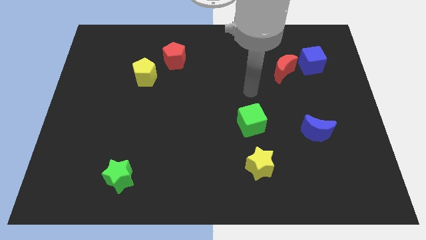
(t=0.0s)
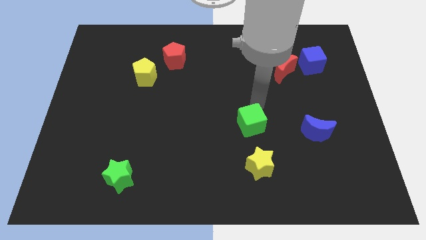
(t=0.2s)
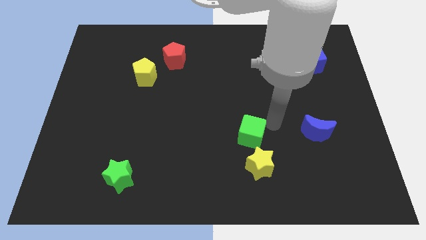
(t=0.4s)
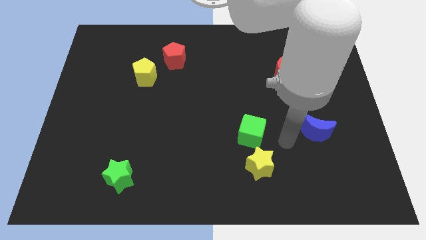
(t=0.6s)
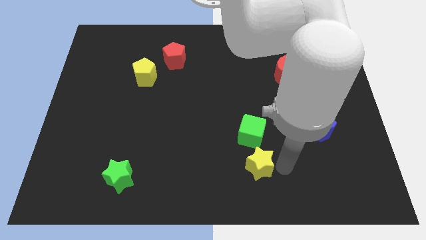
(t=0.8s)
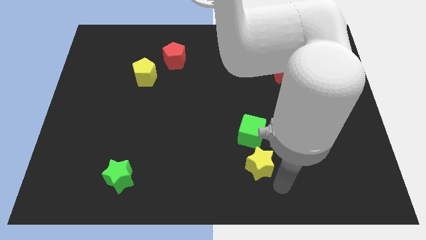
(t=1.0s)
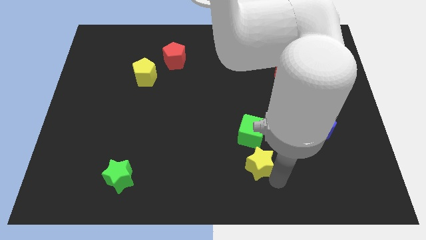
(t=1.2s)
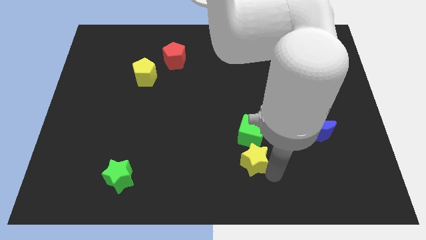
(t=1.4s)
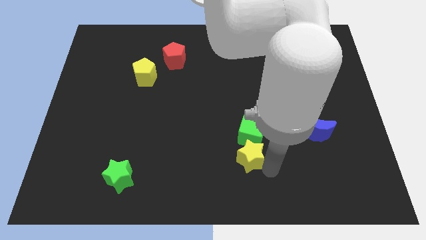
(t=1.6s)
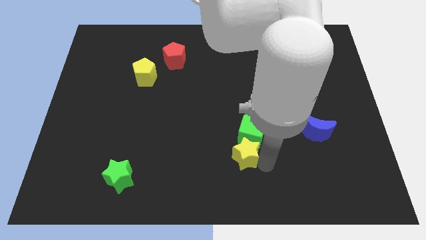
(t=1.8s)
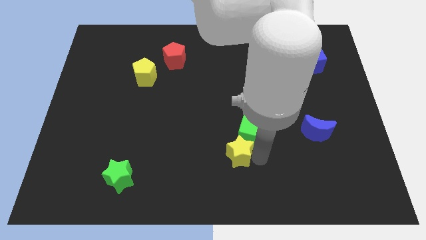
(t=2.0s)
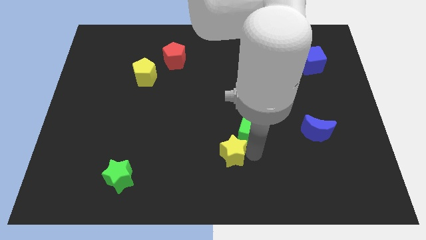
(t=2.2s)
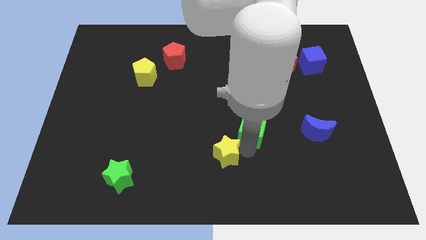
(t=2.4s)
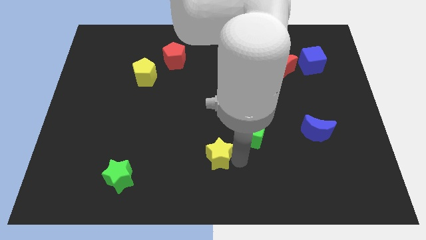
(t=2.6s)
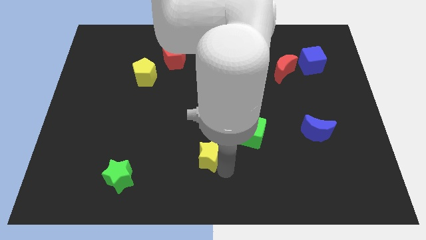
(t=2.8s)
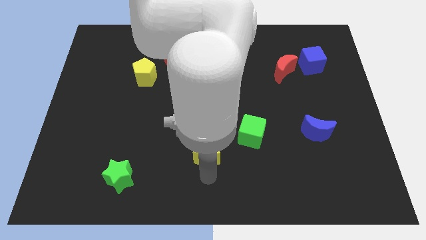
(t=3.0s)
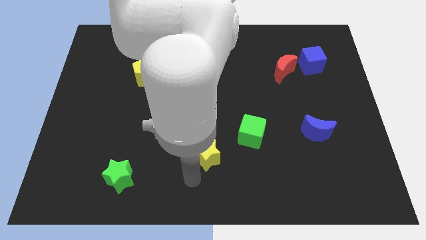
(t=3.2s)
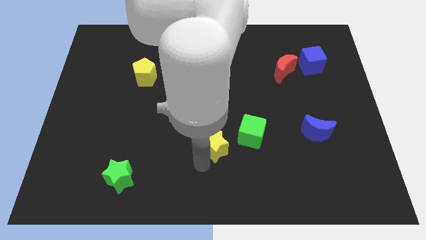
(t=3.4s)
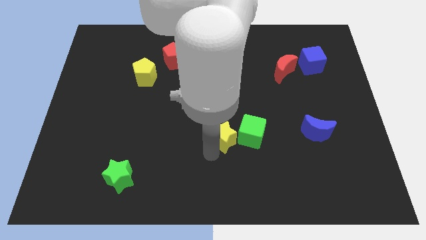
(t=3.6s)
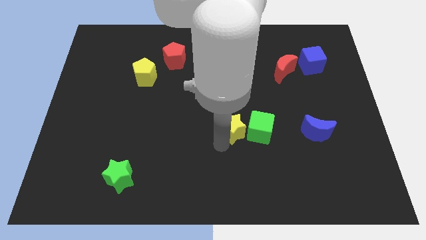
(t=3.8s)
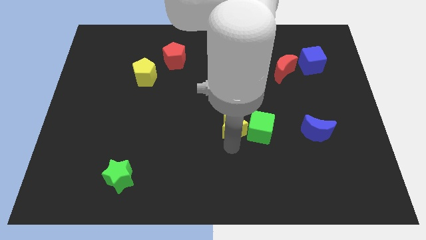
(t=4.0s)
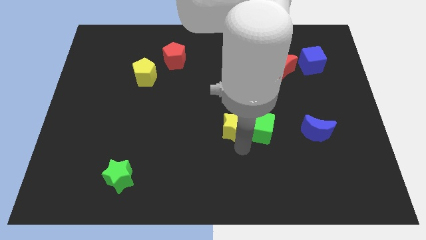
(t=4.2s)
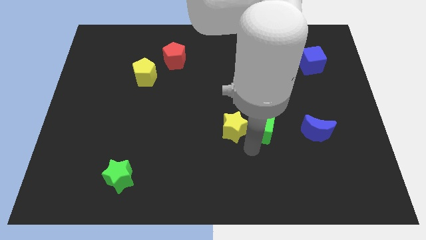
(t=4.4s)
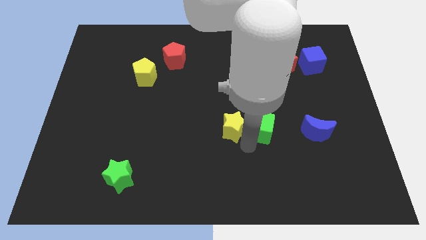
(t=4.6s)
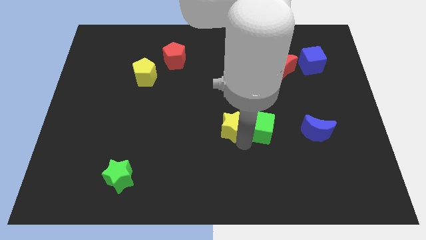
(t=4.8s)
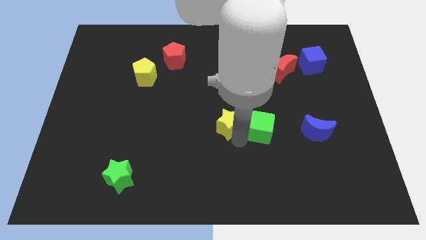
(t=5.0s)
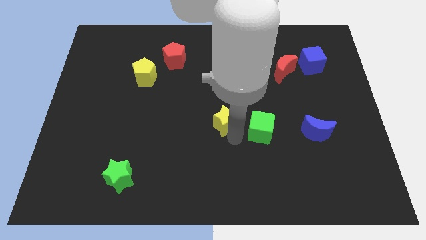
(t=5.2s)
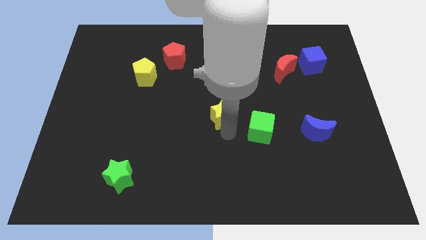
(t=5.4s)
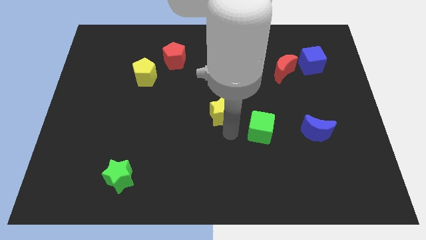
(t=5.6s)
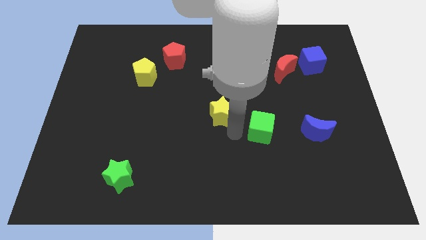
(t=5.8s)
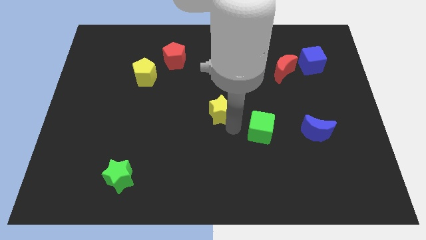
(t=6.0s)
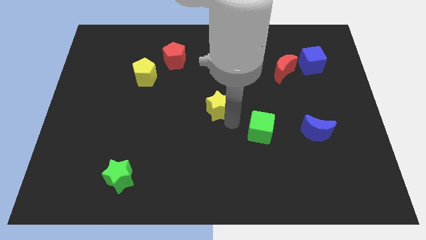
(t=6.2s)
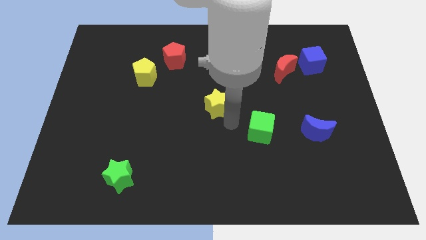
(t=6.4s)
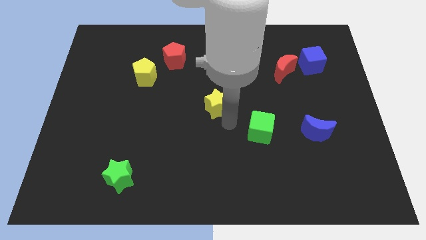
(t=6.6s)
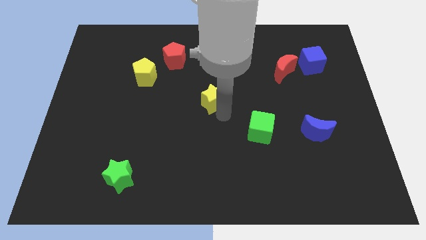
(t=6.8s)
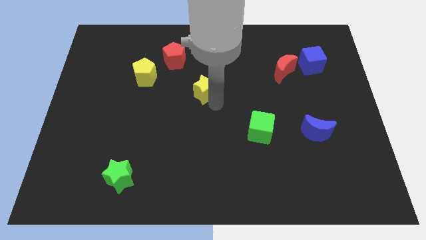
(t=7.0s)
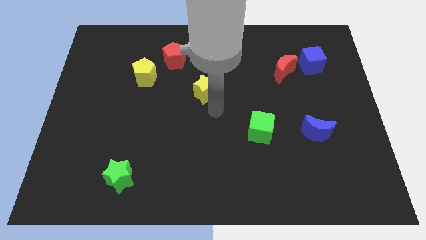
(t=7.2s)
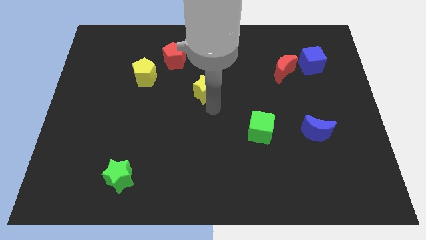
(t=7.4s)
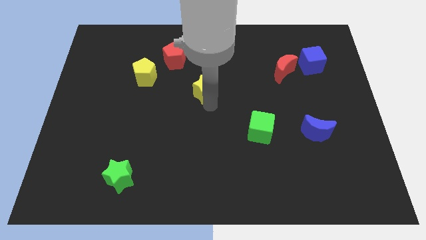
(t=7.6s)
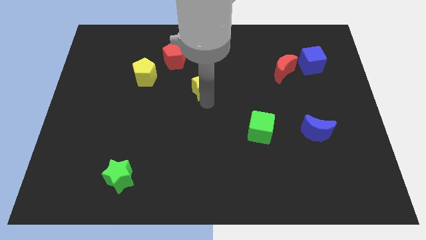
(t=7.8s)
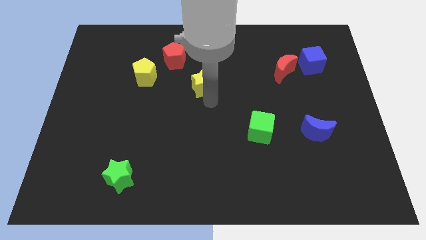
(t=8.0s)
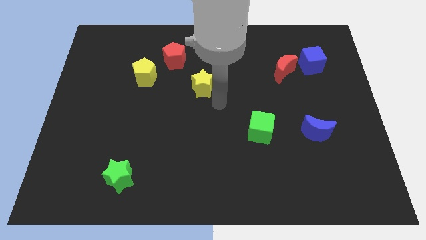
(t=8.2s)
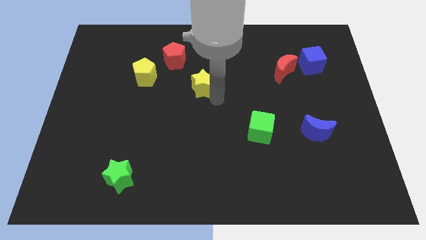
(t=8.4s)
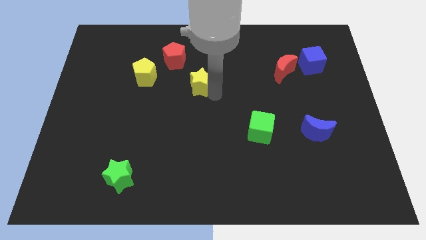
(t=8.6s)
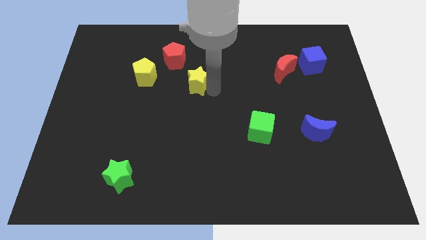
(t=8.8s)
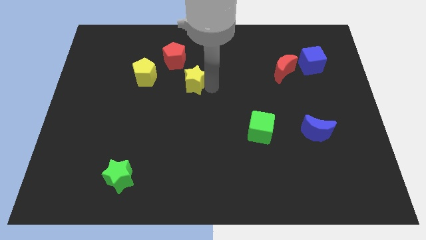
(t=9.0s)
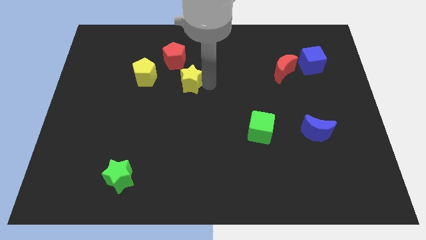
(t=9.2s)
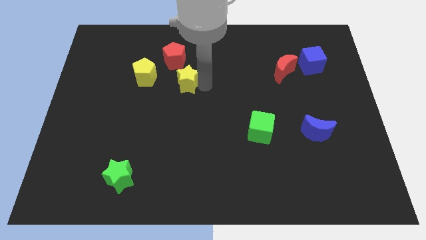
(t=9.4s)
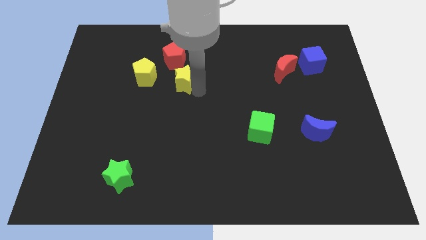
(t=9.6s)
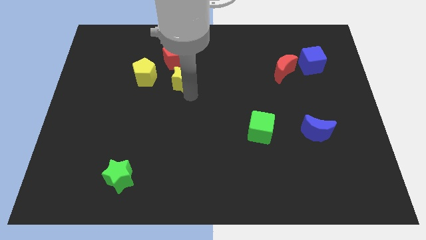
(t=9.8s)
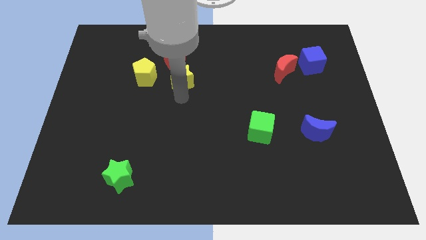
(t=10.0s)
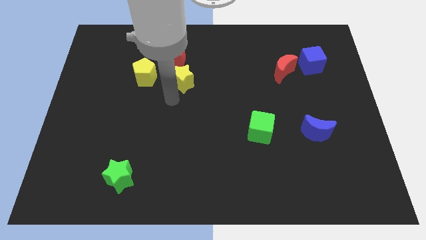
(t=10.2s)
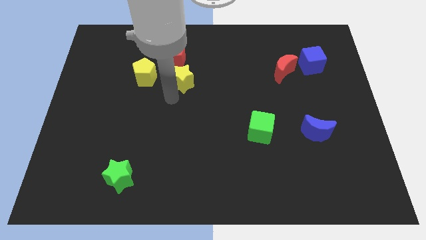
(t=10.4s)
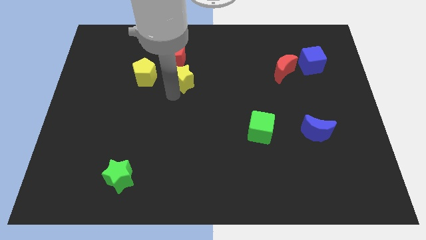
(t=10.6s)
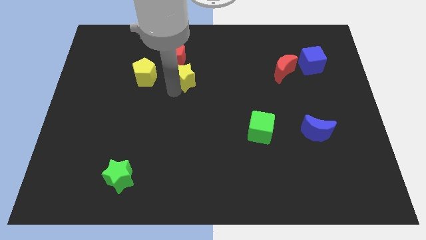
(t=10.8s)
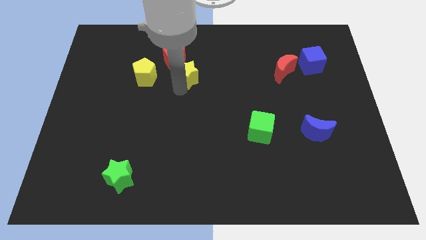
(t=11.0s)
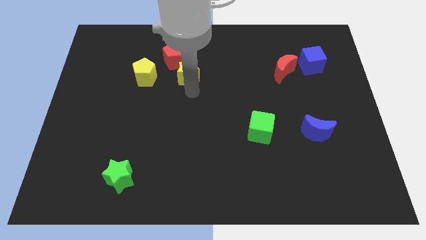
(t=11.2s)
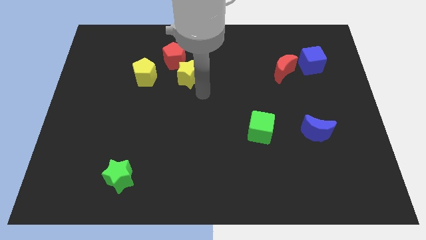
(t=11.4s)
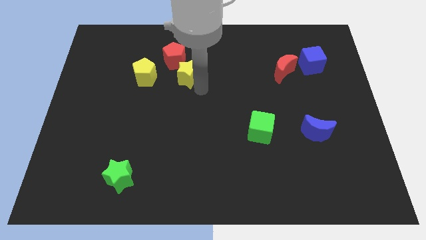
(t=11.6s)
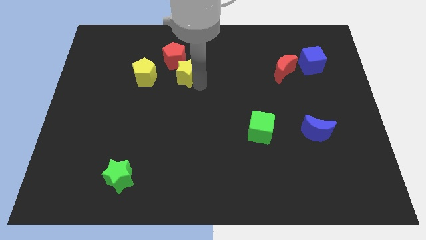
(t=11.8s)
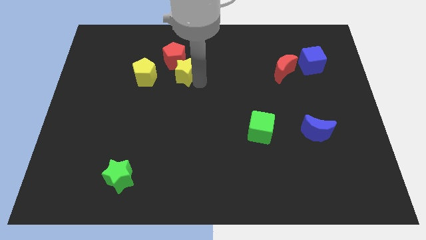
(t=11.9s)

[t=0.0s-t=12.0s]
move the yellow star close to the red pentagon

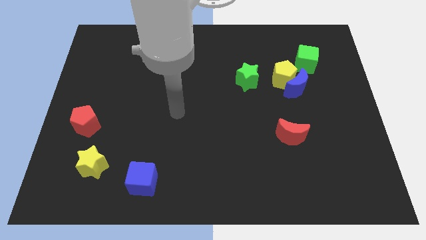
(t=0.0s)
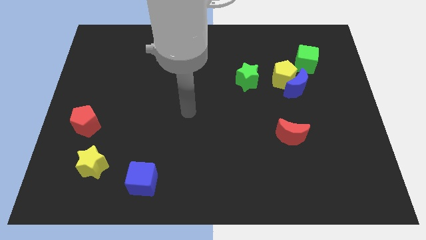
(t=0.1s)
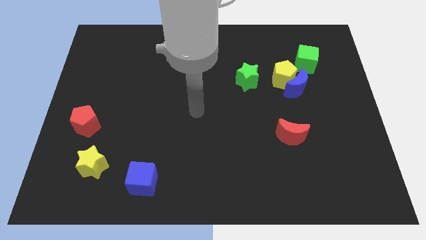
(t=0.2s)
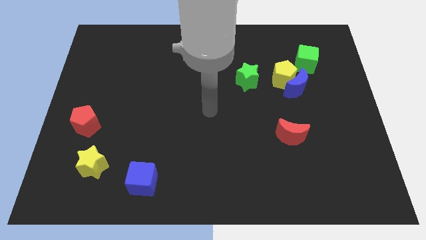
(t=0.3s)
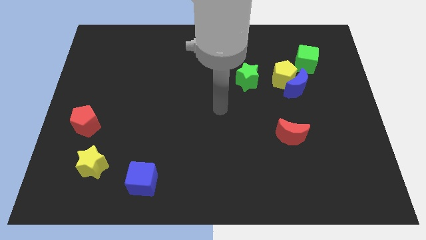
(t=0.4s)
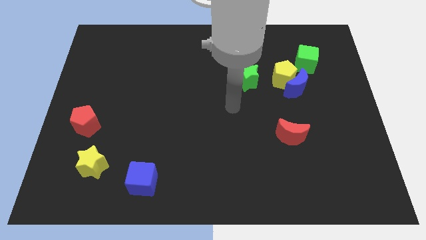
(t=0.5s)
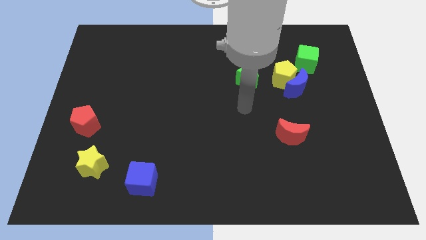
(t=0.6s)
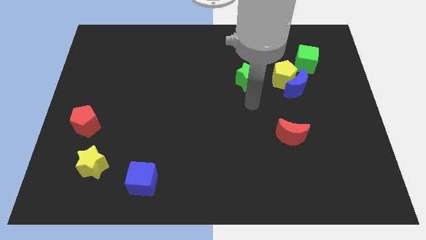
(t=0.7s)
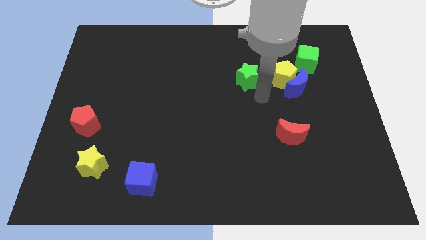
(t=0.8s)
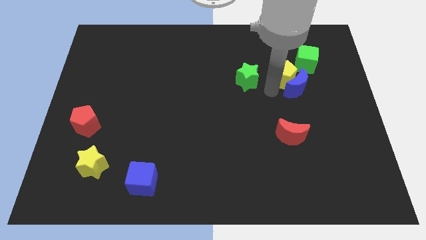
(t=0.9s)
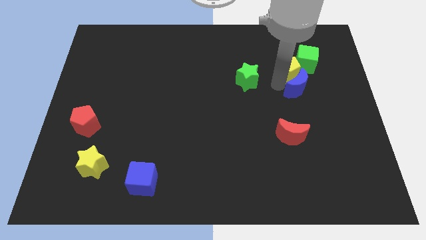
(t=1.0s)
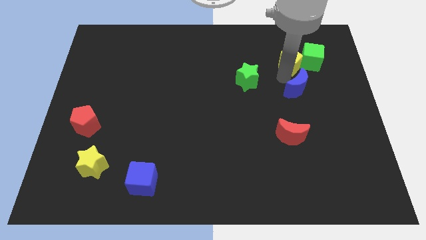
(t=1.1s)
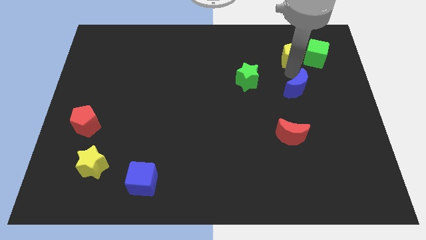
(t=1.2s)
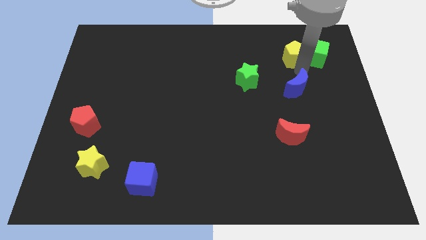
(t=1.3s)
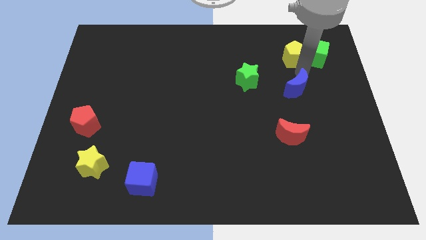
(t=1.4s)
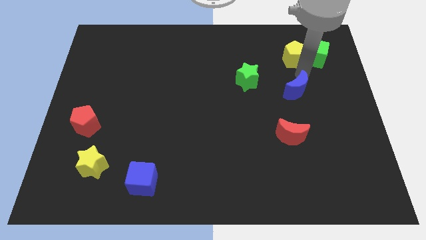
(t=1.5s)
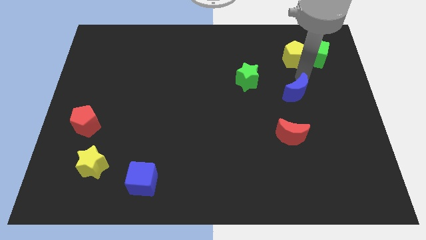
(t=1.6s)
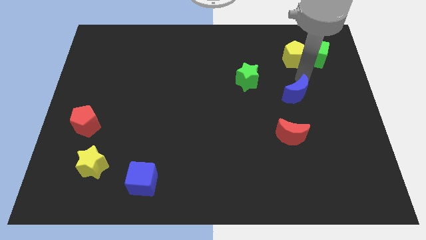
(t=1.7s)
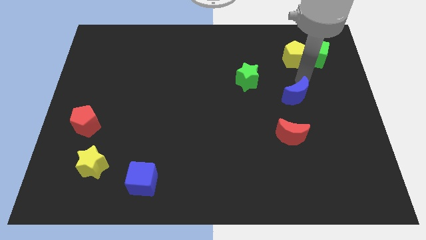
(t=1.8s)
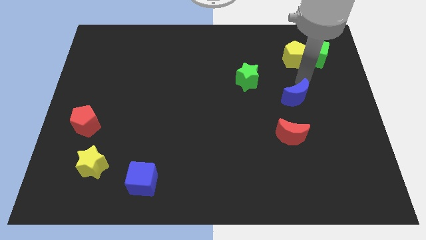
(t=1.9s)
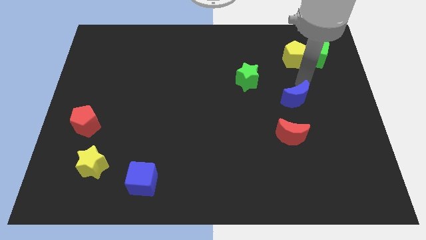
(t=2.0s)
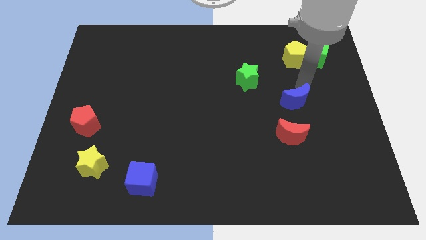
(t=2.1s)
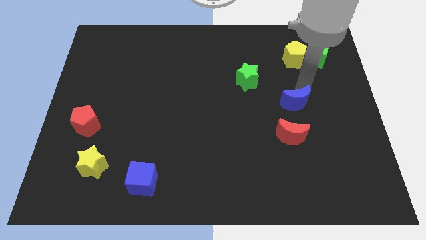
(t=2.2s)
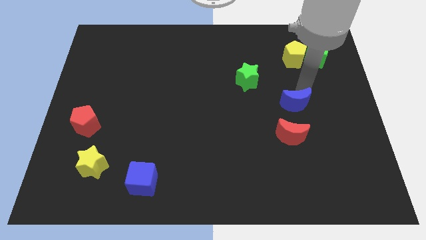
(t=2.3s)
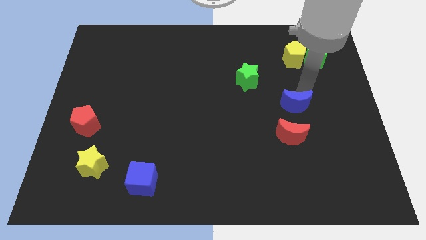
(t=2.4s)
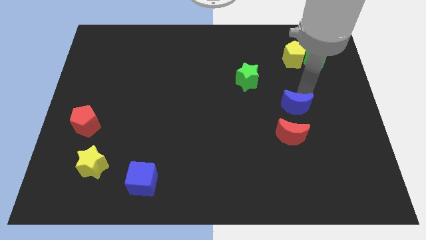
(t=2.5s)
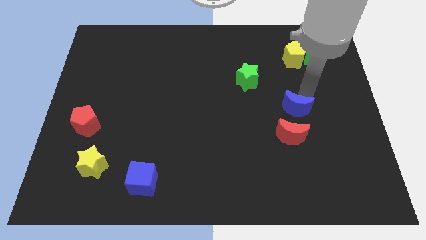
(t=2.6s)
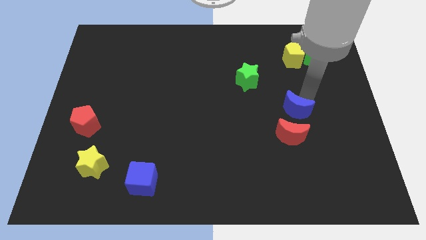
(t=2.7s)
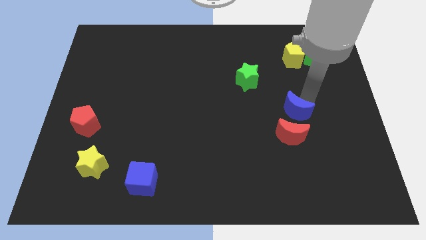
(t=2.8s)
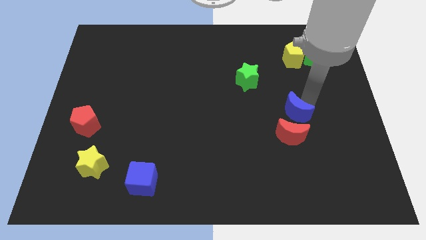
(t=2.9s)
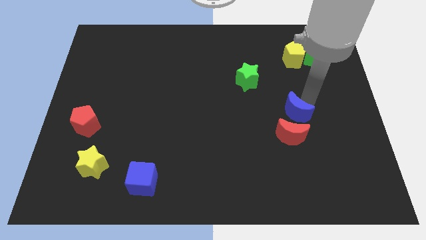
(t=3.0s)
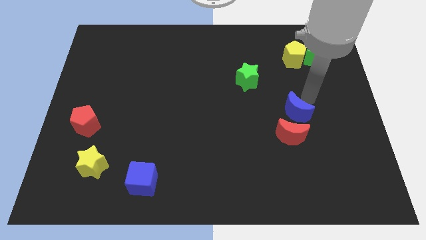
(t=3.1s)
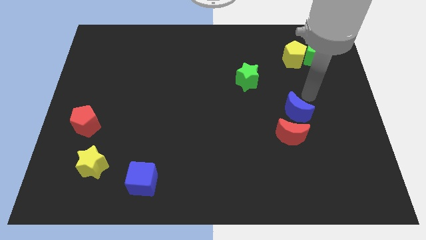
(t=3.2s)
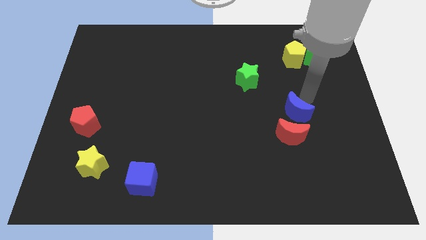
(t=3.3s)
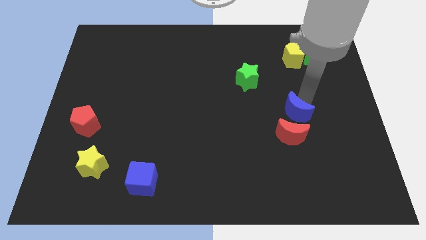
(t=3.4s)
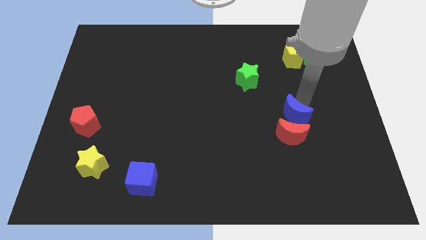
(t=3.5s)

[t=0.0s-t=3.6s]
slide the blue moon next to the red moon
